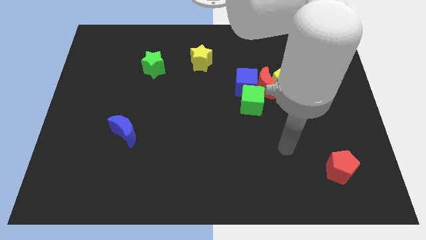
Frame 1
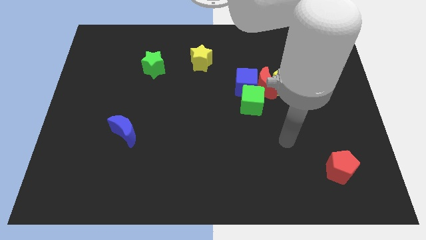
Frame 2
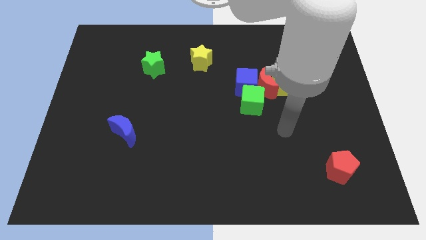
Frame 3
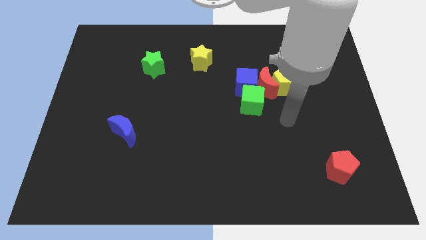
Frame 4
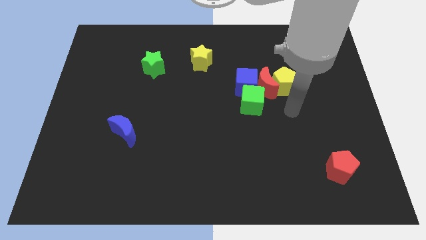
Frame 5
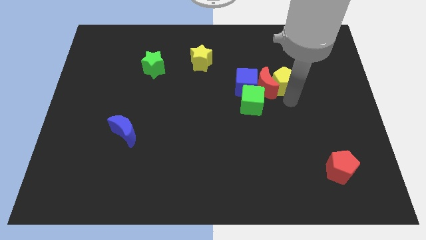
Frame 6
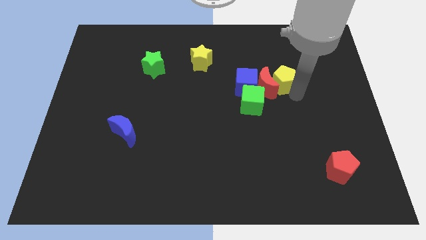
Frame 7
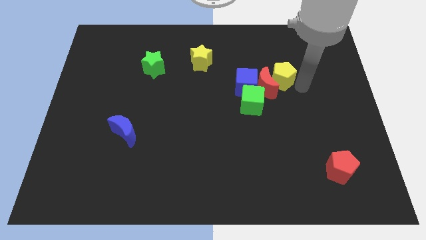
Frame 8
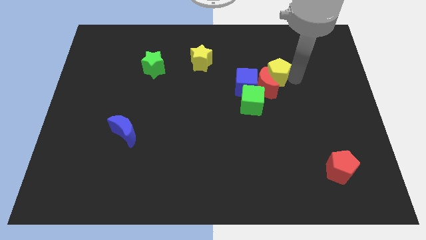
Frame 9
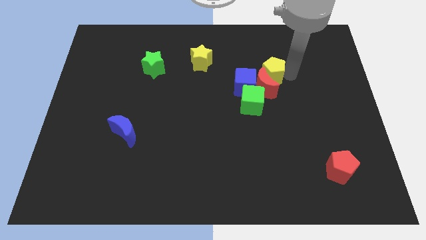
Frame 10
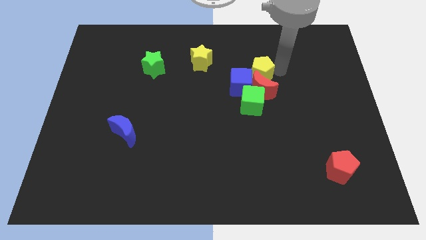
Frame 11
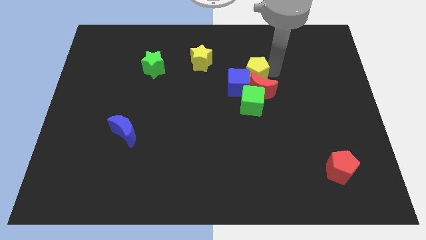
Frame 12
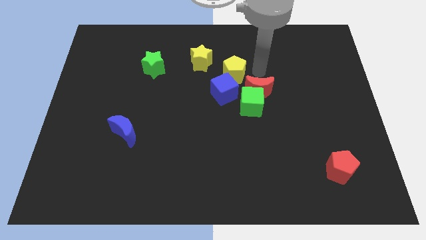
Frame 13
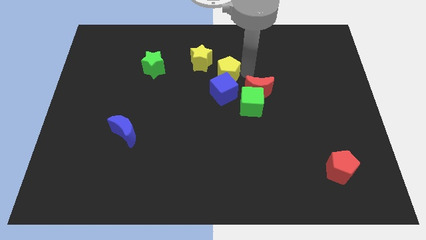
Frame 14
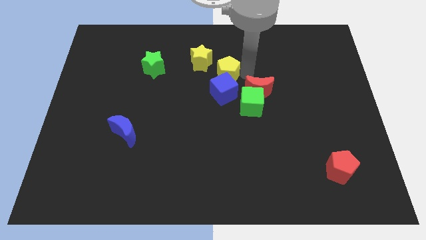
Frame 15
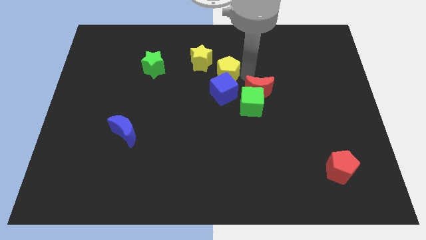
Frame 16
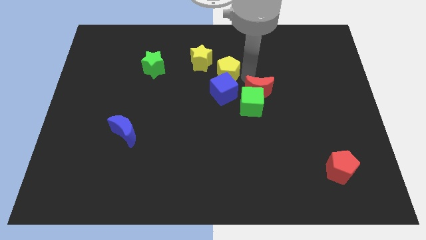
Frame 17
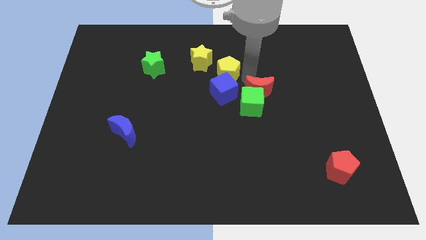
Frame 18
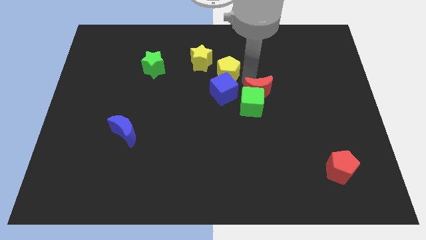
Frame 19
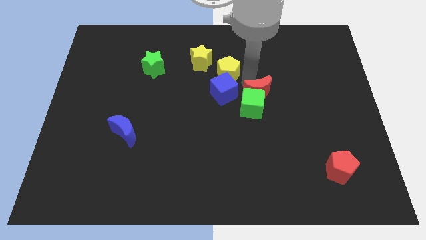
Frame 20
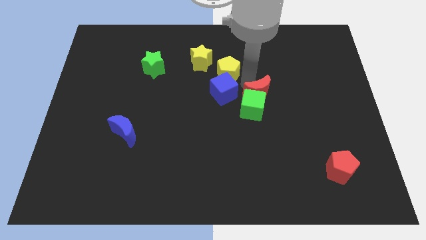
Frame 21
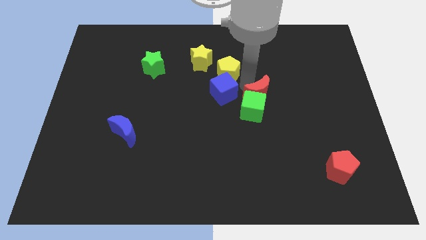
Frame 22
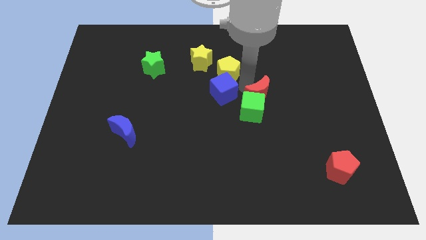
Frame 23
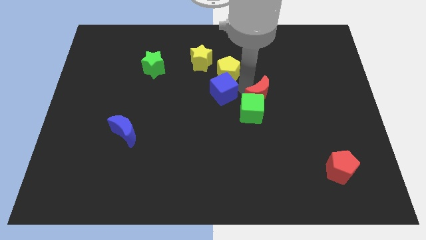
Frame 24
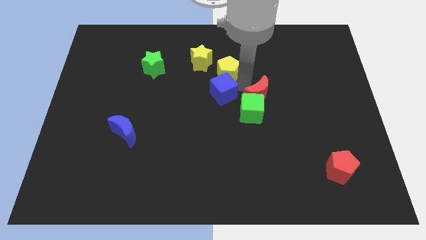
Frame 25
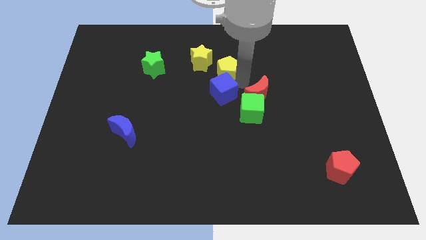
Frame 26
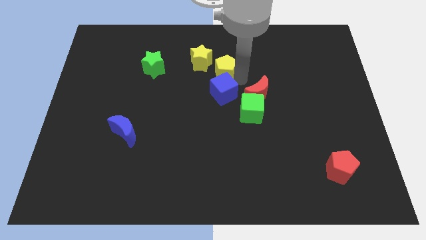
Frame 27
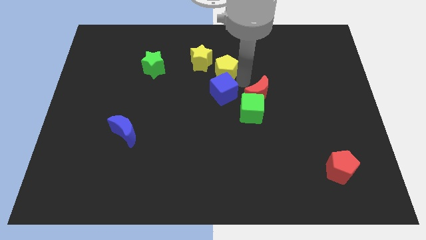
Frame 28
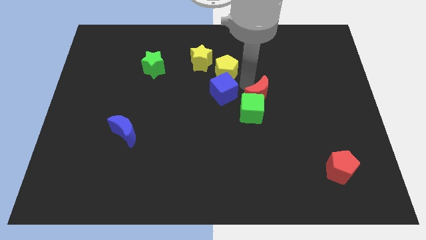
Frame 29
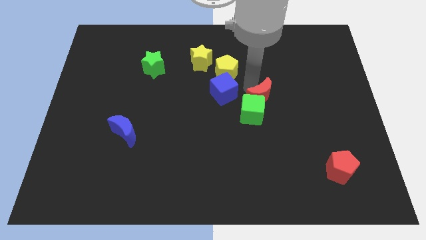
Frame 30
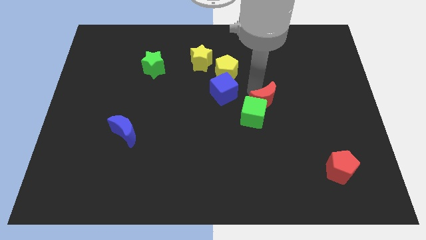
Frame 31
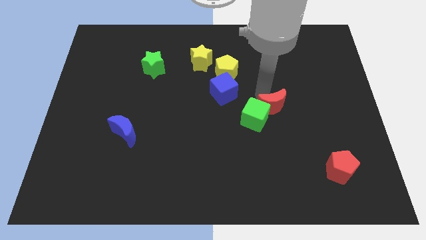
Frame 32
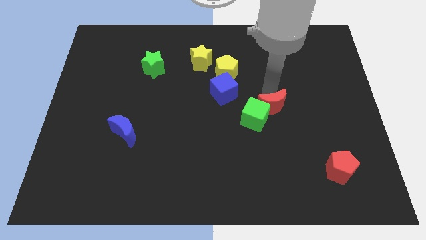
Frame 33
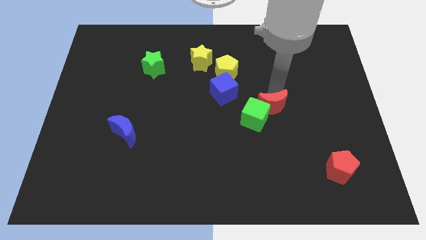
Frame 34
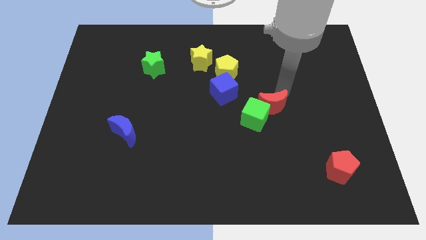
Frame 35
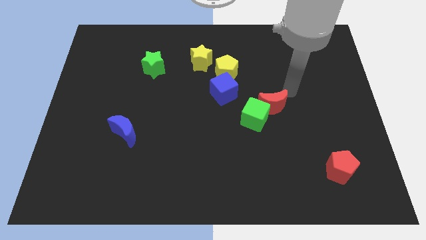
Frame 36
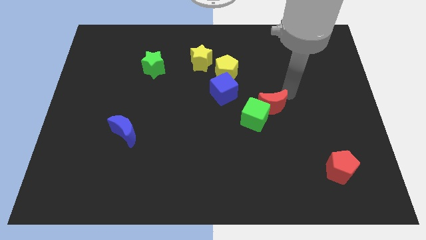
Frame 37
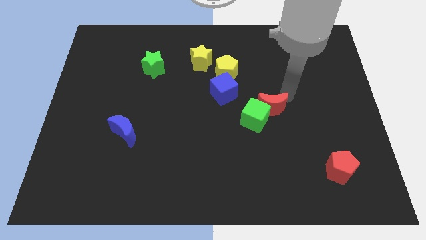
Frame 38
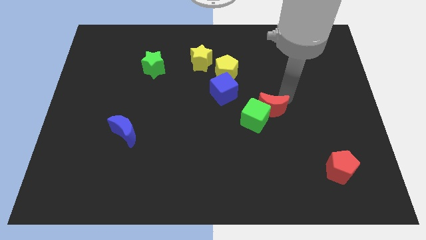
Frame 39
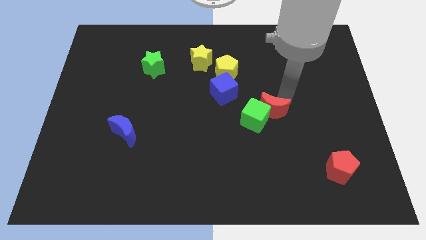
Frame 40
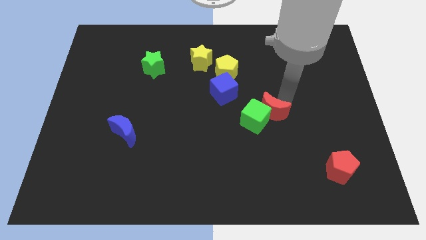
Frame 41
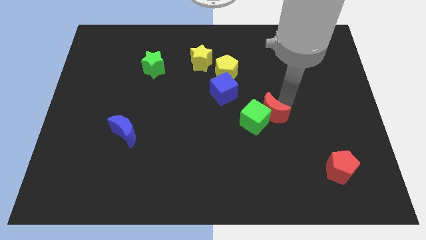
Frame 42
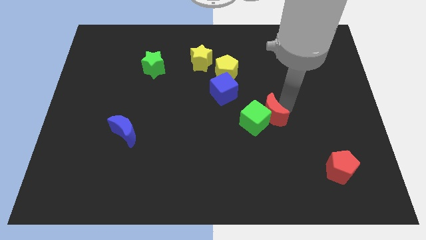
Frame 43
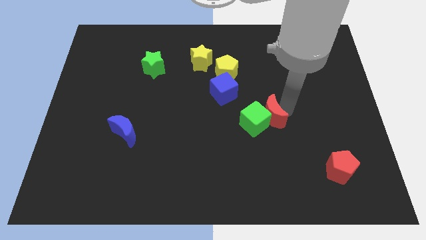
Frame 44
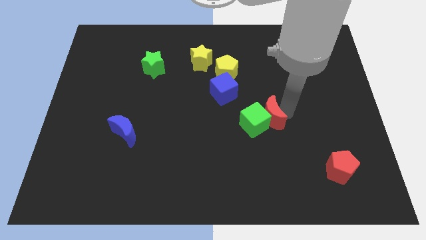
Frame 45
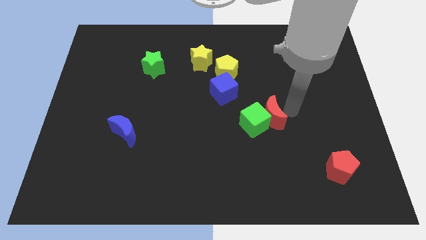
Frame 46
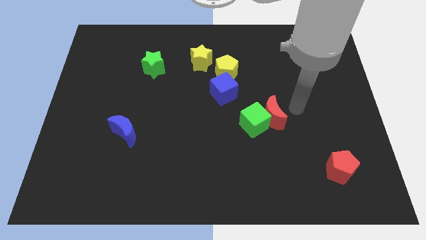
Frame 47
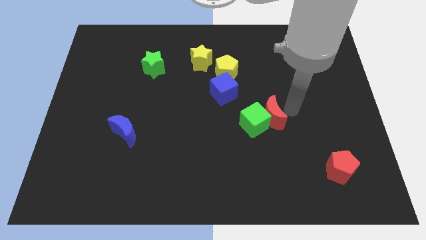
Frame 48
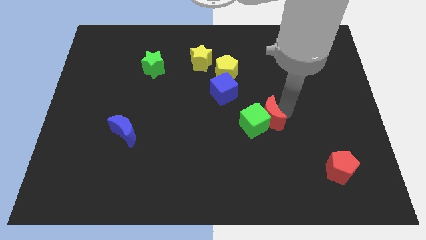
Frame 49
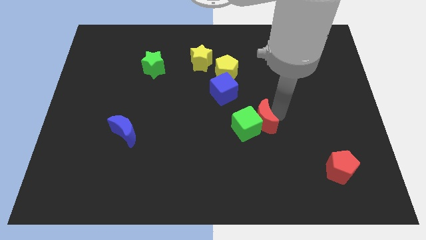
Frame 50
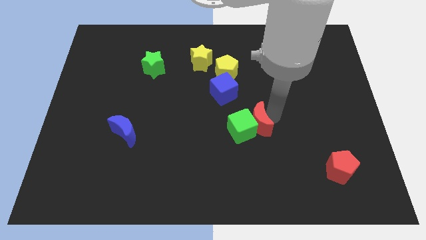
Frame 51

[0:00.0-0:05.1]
push the red moon slightly downwards and then left

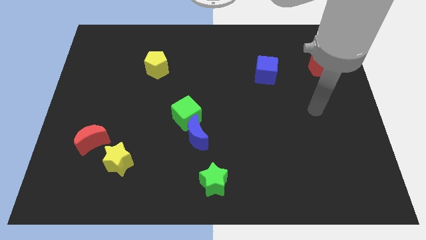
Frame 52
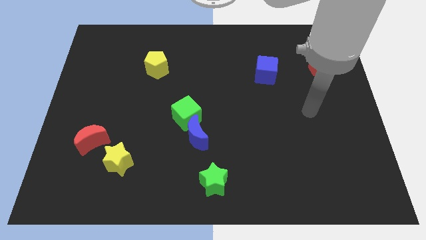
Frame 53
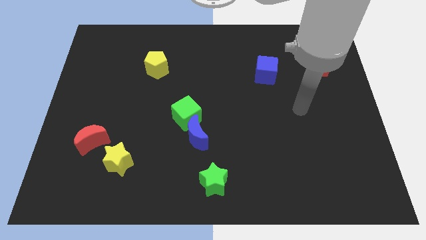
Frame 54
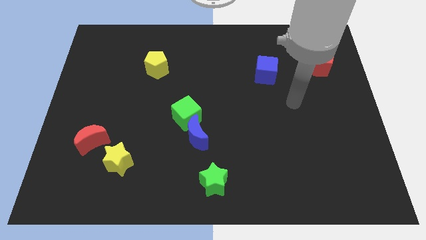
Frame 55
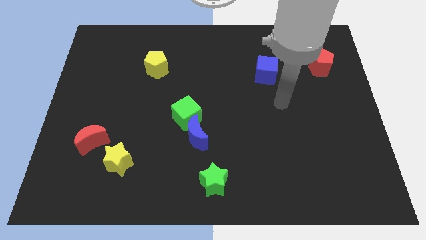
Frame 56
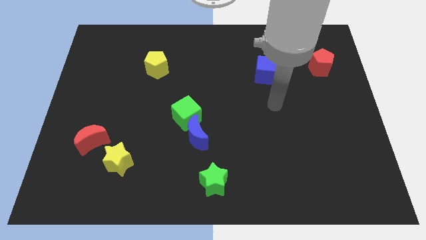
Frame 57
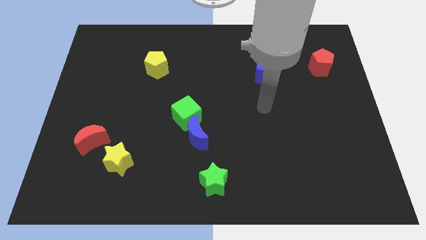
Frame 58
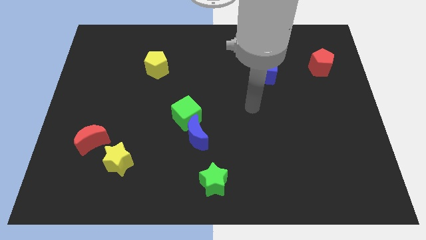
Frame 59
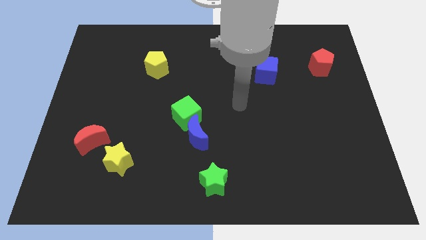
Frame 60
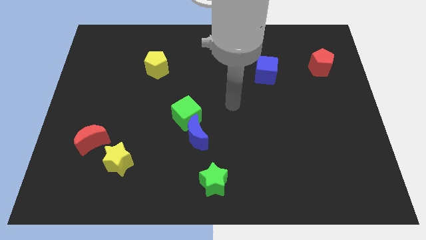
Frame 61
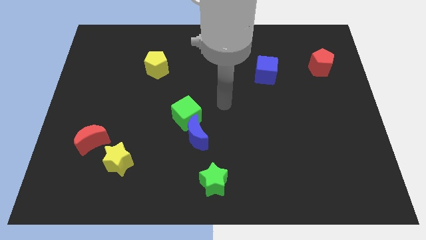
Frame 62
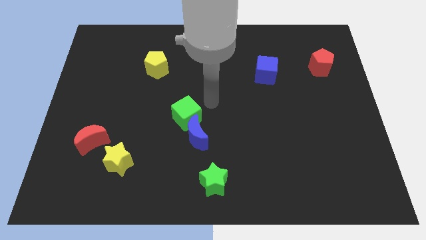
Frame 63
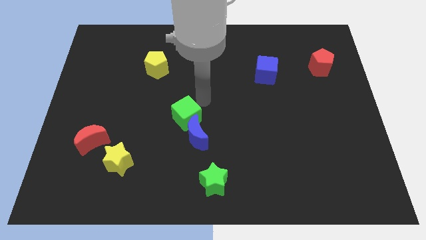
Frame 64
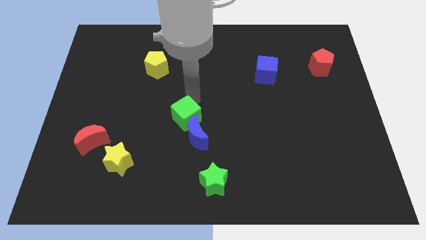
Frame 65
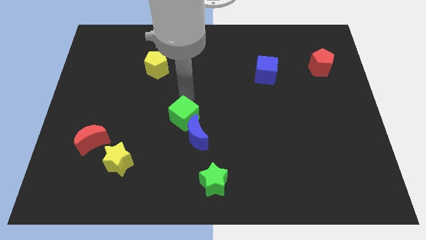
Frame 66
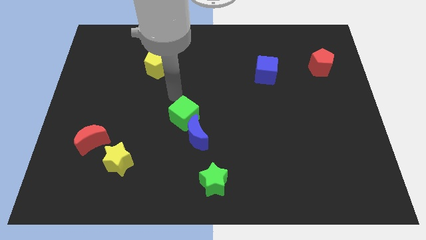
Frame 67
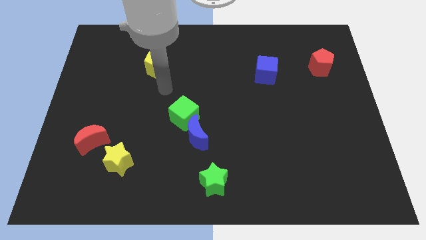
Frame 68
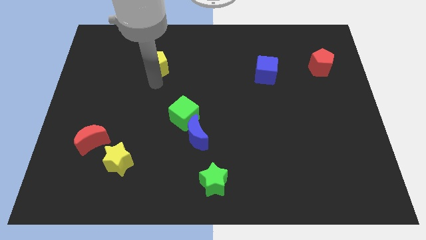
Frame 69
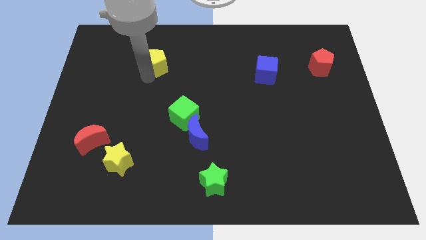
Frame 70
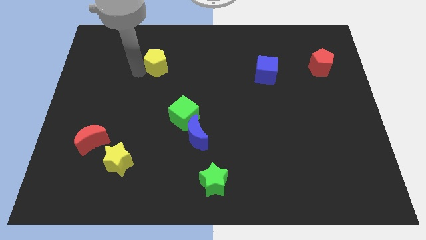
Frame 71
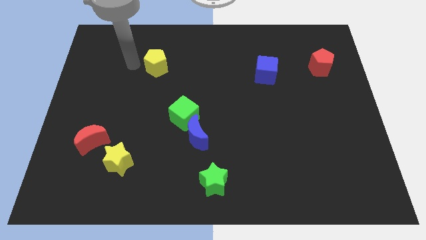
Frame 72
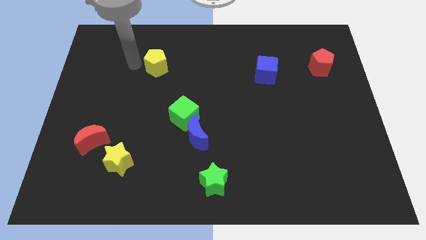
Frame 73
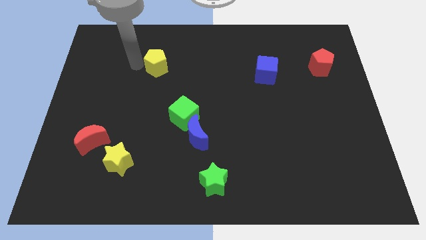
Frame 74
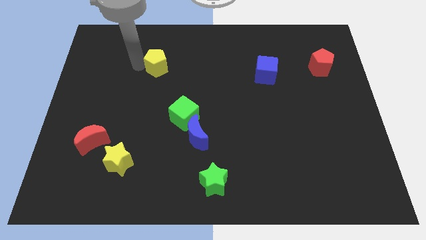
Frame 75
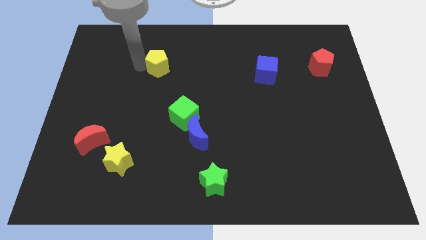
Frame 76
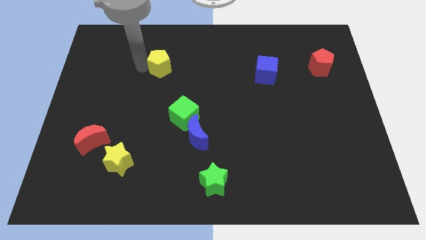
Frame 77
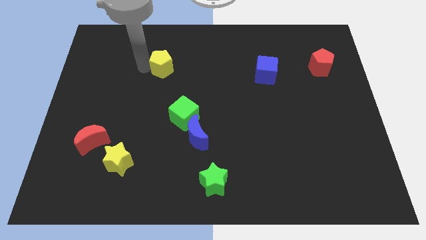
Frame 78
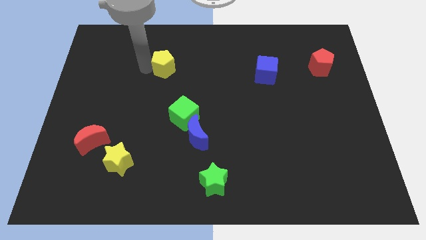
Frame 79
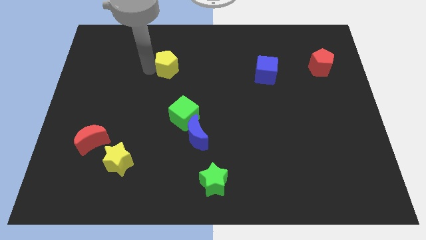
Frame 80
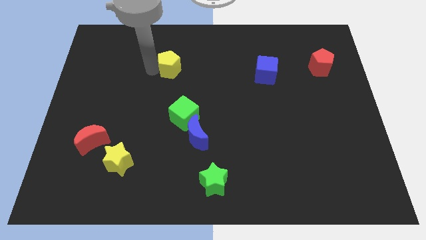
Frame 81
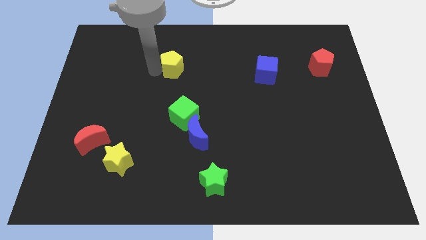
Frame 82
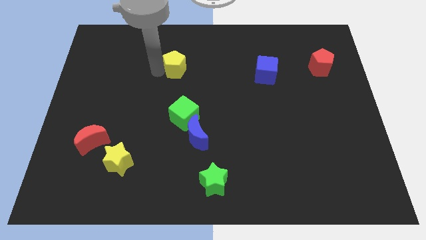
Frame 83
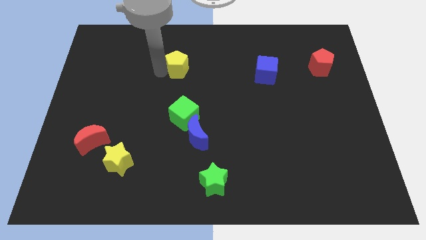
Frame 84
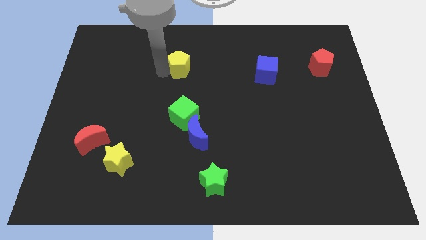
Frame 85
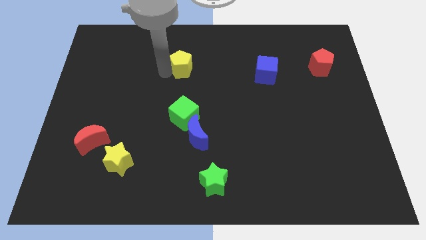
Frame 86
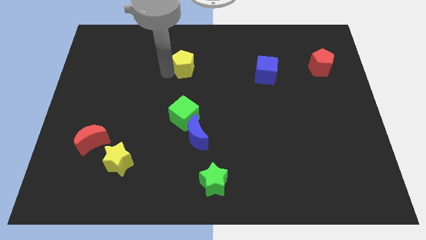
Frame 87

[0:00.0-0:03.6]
push the yellow pentagon a bit to the right
